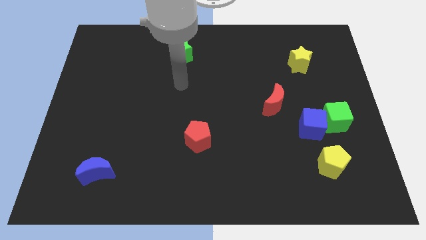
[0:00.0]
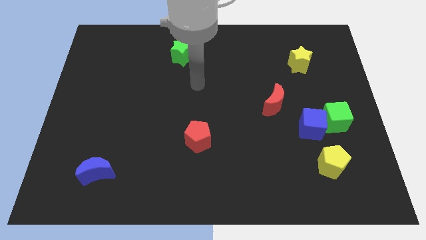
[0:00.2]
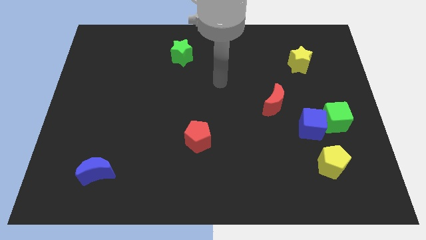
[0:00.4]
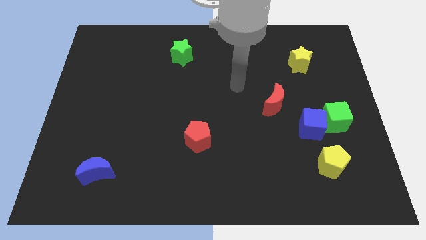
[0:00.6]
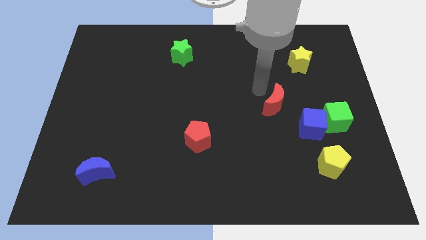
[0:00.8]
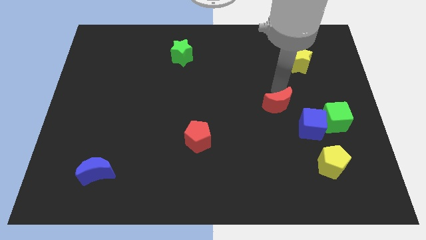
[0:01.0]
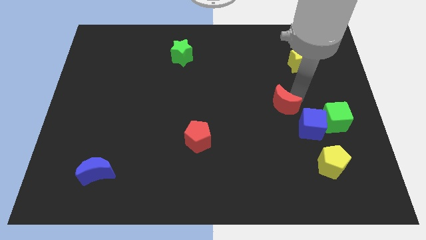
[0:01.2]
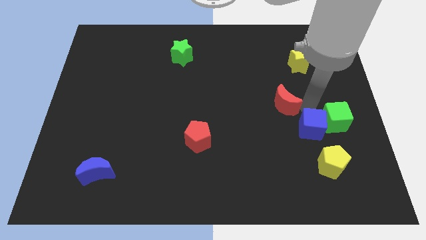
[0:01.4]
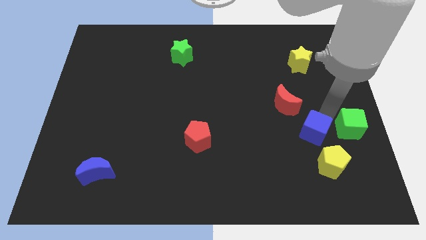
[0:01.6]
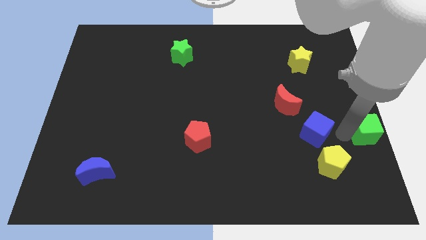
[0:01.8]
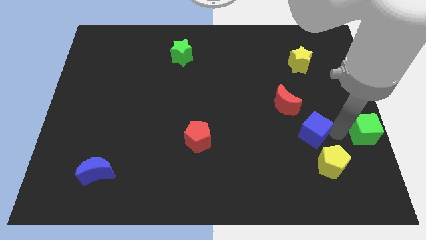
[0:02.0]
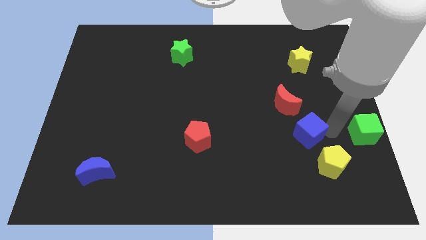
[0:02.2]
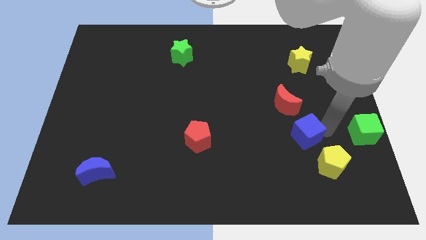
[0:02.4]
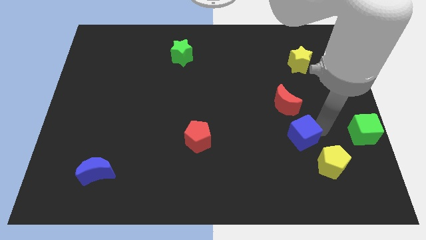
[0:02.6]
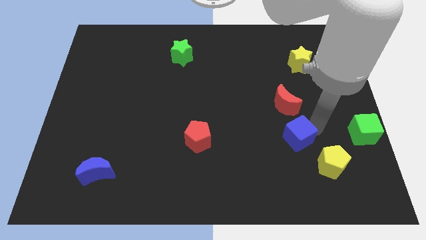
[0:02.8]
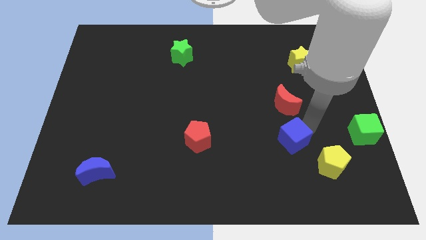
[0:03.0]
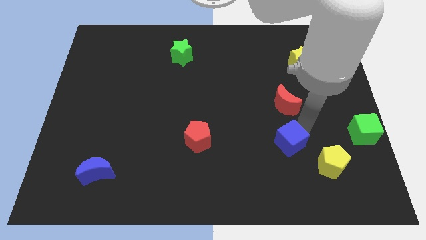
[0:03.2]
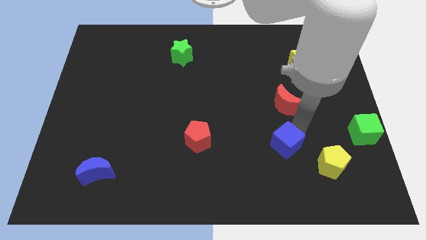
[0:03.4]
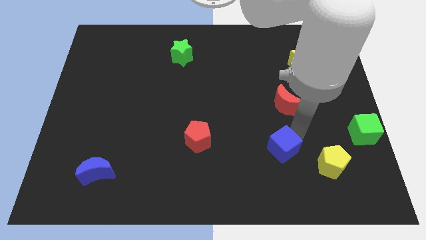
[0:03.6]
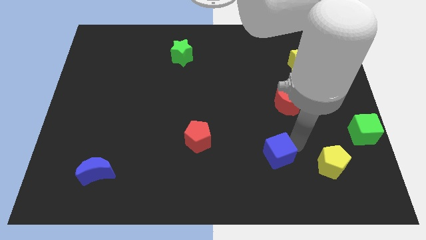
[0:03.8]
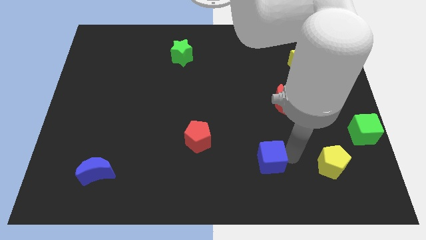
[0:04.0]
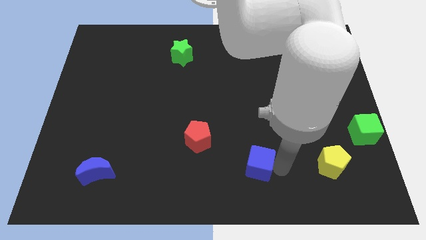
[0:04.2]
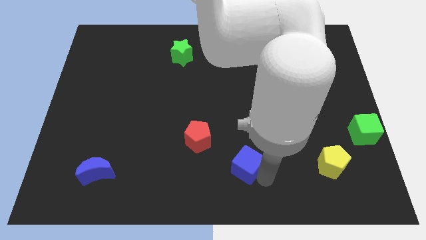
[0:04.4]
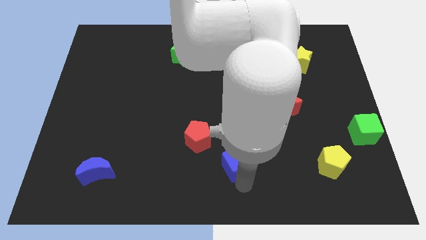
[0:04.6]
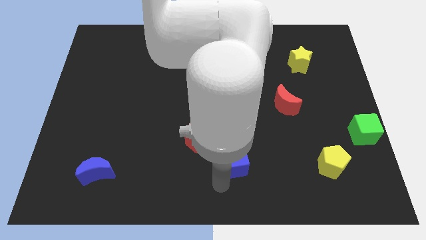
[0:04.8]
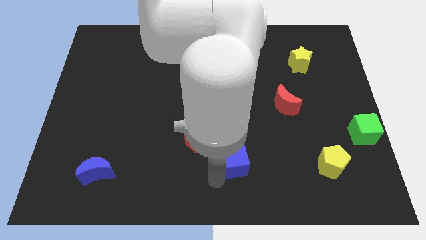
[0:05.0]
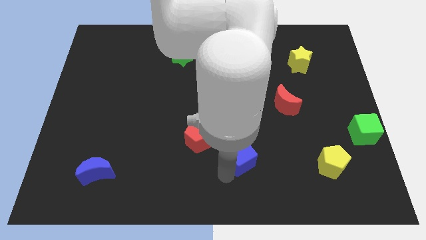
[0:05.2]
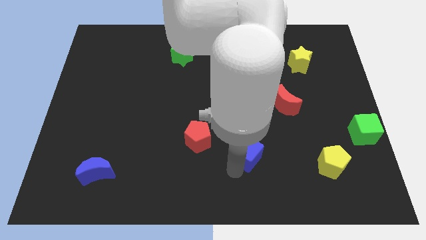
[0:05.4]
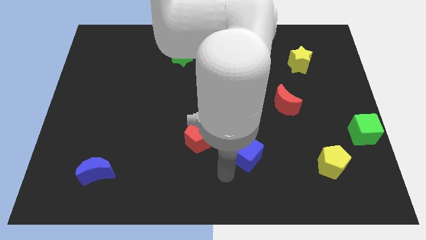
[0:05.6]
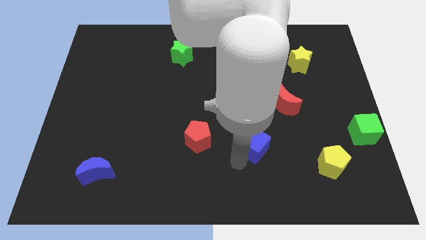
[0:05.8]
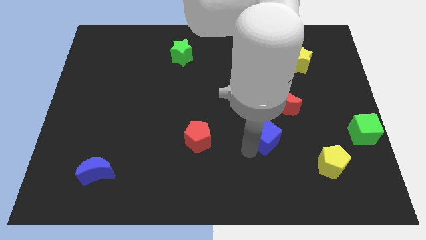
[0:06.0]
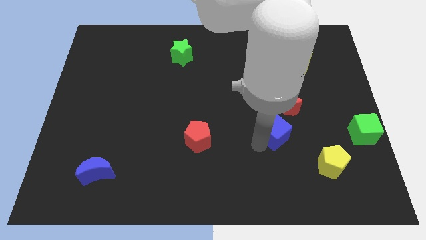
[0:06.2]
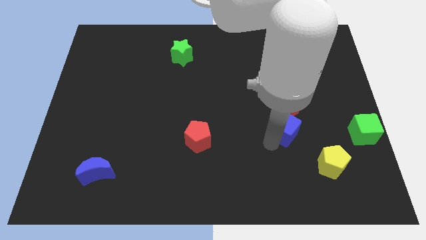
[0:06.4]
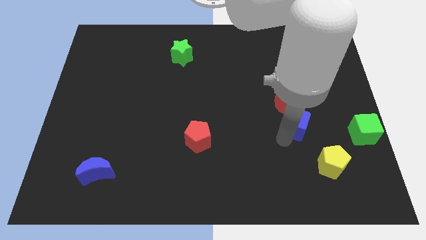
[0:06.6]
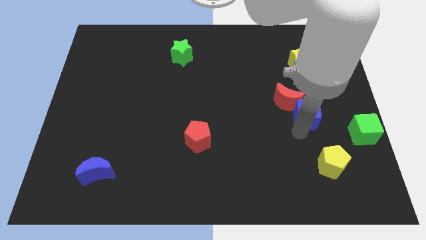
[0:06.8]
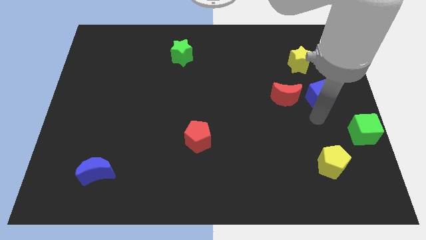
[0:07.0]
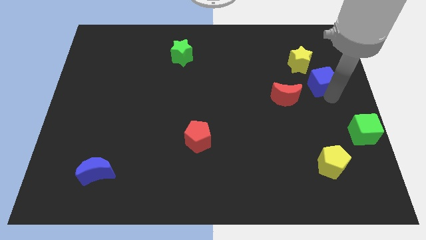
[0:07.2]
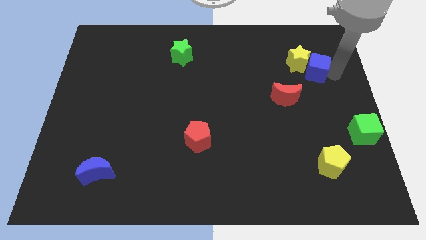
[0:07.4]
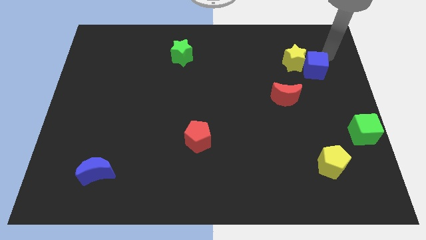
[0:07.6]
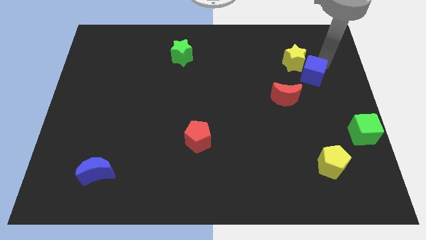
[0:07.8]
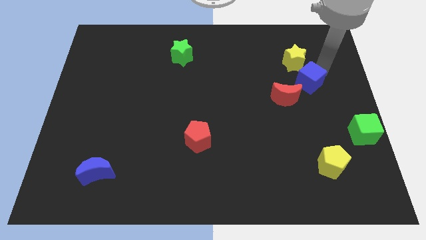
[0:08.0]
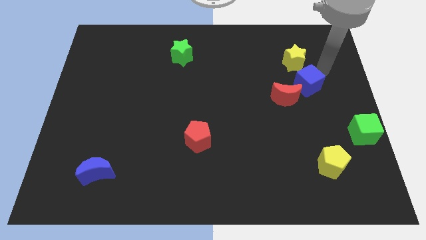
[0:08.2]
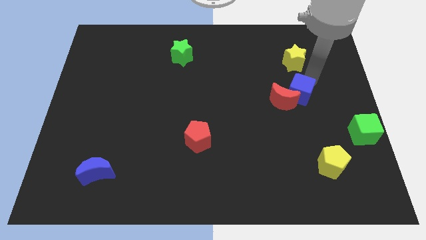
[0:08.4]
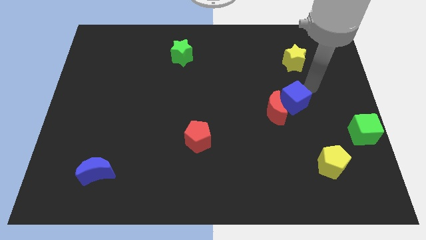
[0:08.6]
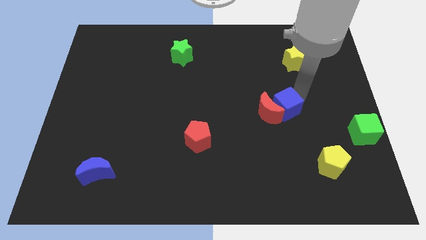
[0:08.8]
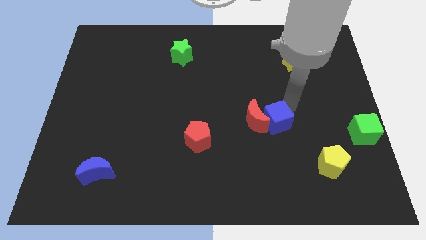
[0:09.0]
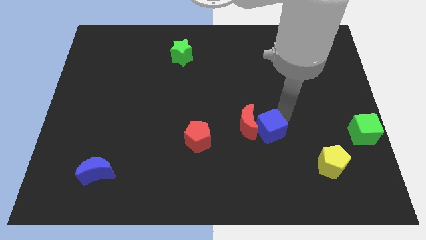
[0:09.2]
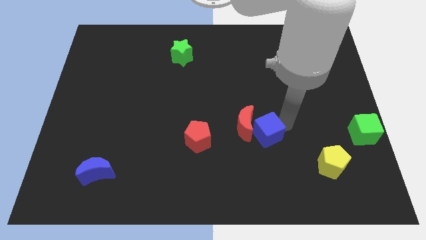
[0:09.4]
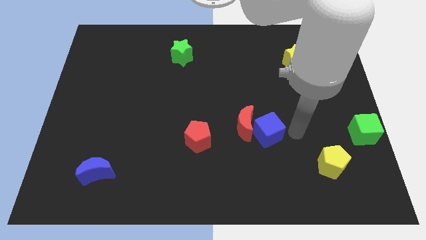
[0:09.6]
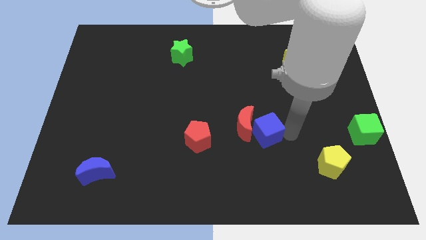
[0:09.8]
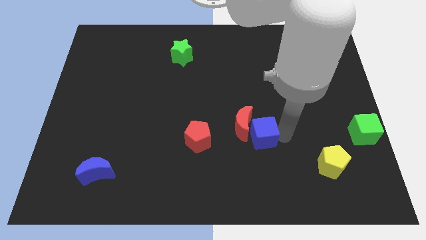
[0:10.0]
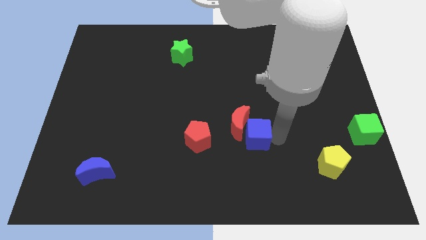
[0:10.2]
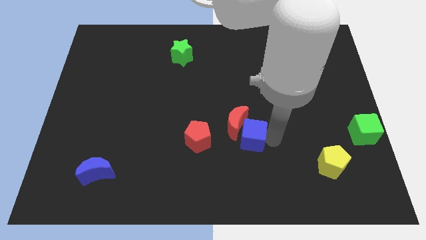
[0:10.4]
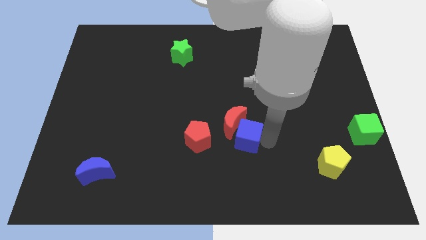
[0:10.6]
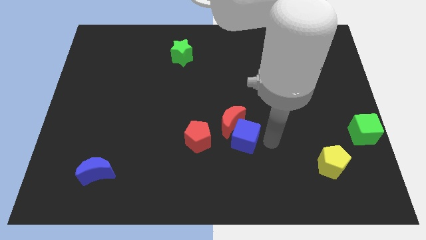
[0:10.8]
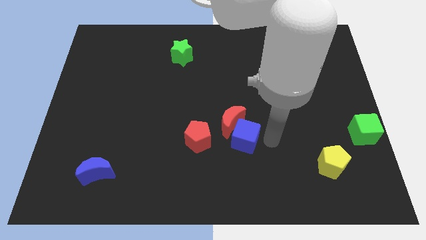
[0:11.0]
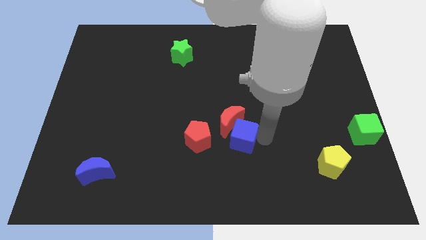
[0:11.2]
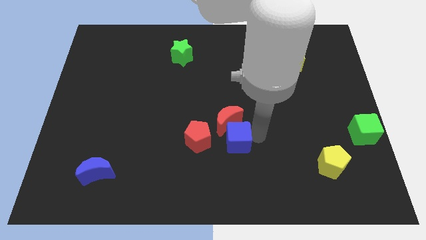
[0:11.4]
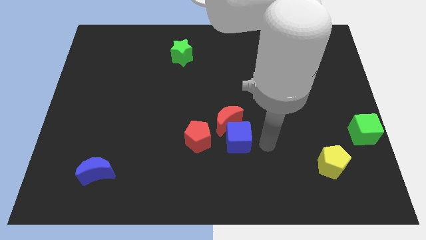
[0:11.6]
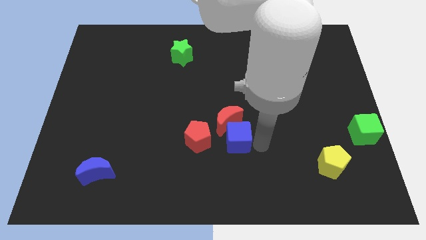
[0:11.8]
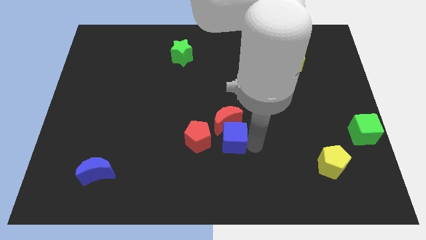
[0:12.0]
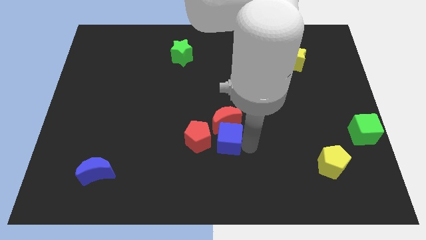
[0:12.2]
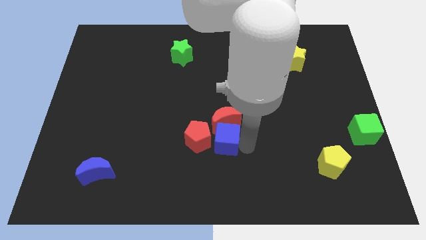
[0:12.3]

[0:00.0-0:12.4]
slide the blue cube towards the red pentagon

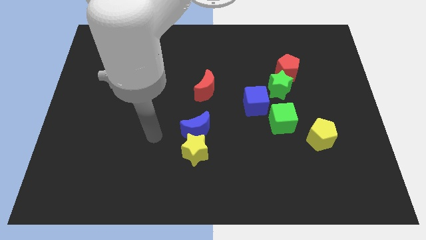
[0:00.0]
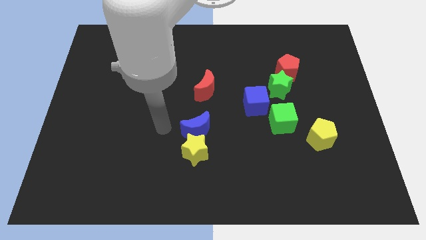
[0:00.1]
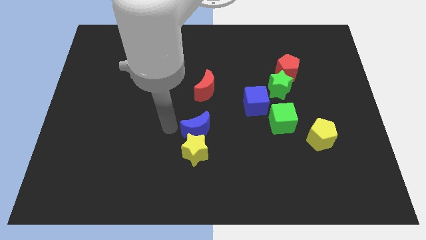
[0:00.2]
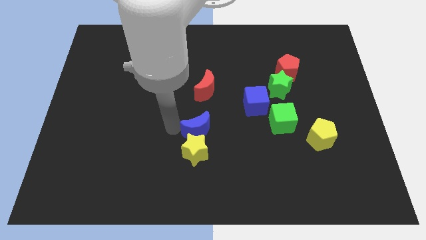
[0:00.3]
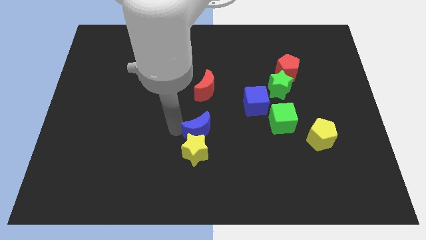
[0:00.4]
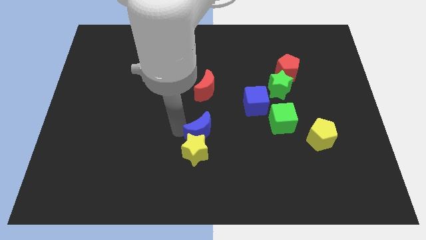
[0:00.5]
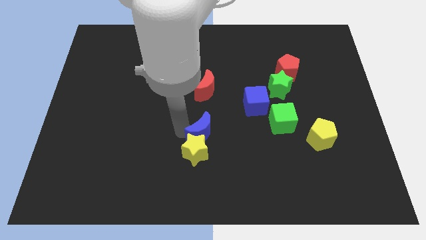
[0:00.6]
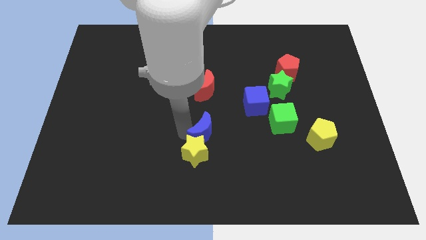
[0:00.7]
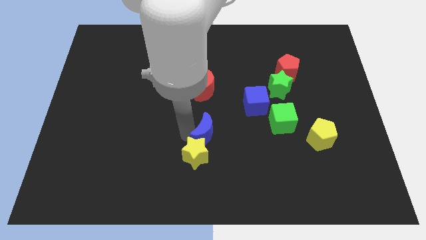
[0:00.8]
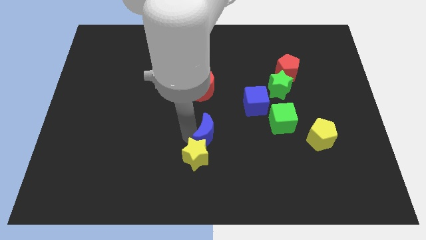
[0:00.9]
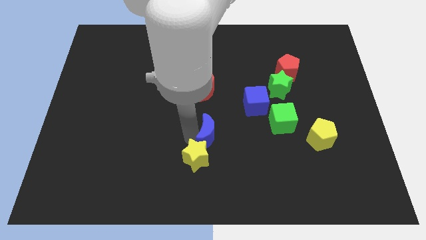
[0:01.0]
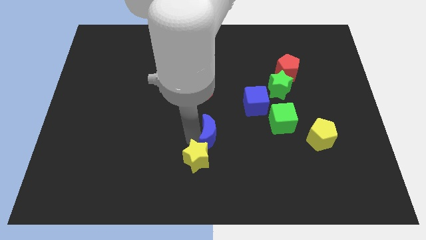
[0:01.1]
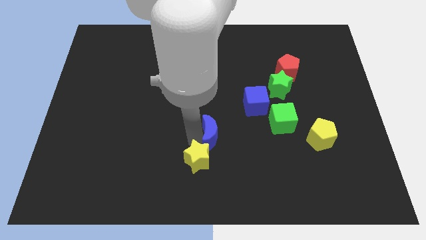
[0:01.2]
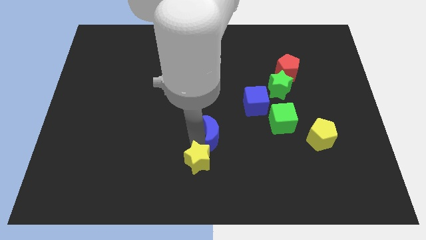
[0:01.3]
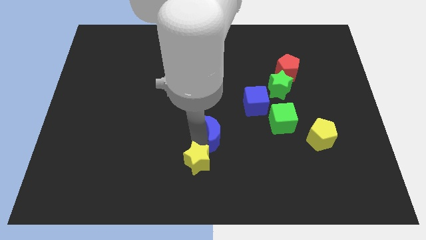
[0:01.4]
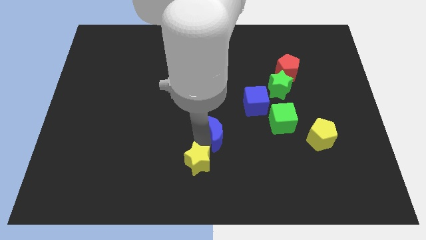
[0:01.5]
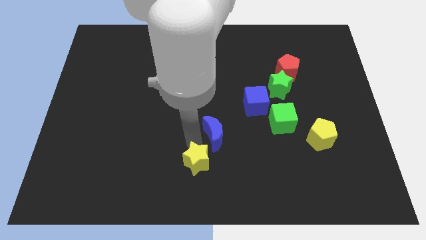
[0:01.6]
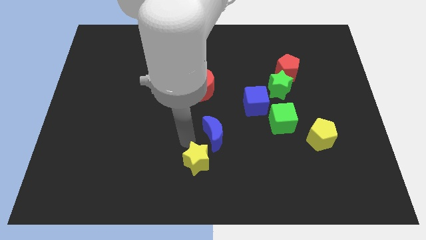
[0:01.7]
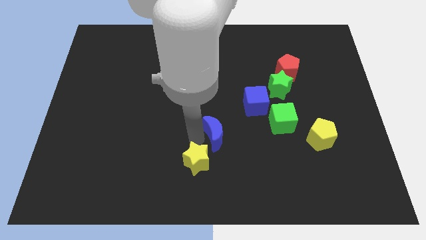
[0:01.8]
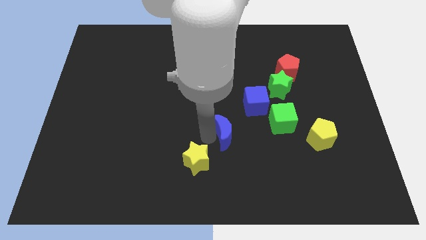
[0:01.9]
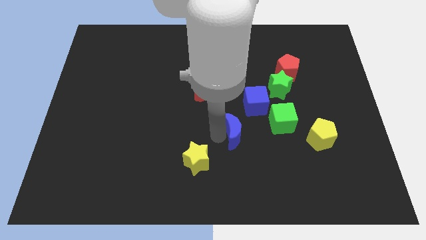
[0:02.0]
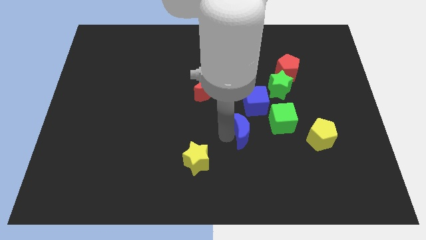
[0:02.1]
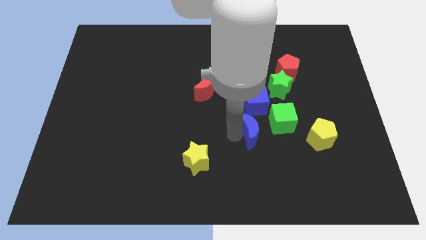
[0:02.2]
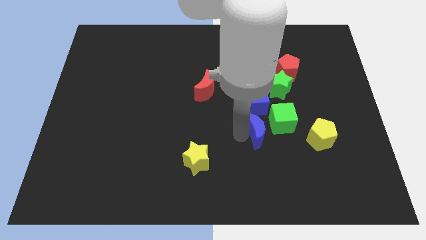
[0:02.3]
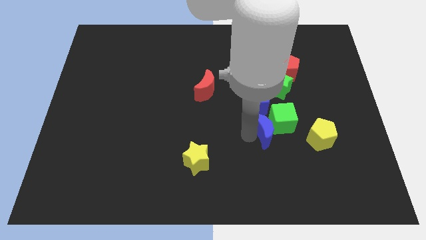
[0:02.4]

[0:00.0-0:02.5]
slide the blue moon next to the green cube
